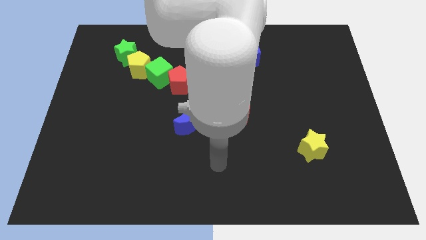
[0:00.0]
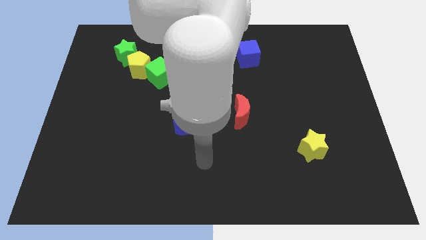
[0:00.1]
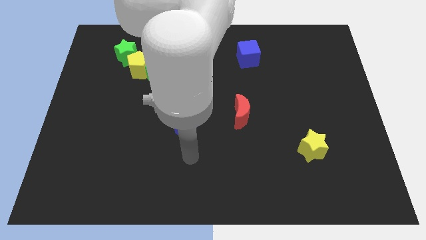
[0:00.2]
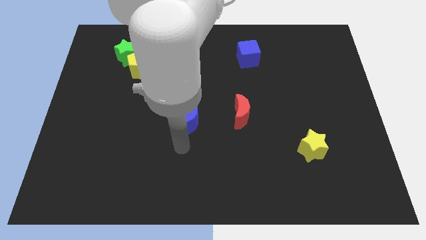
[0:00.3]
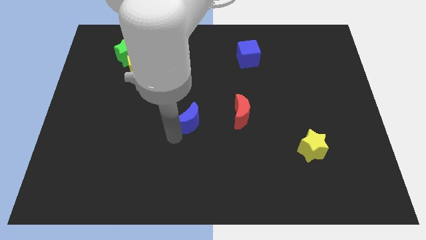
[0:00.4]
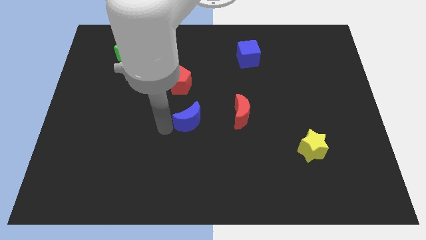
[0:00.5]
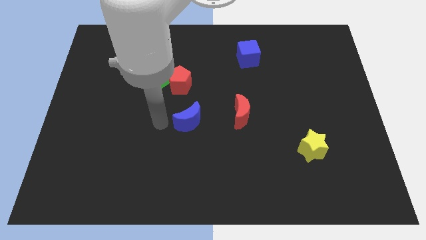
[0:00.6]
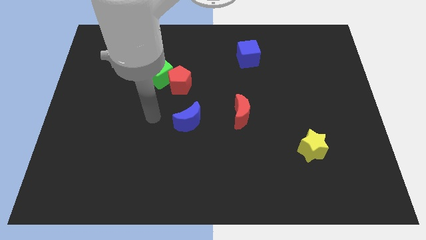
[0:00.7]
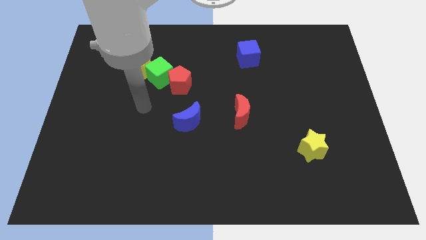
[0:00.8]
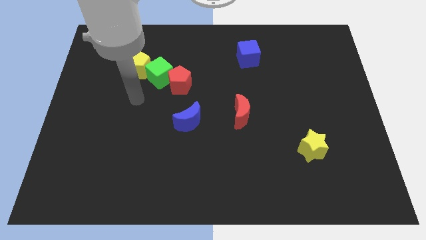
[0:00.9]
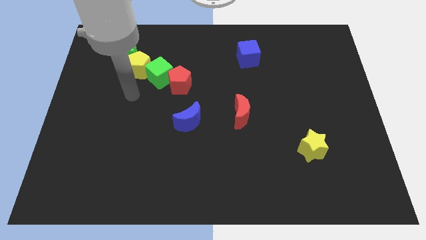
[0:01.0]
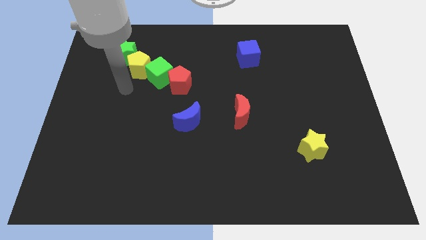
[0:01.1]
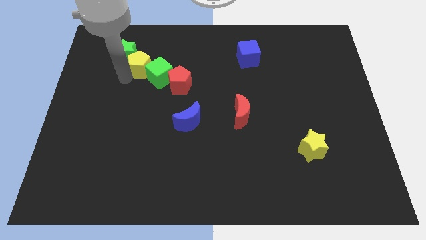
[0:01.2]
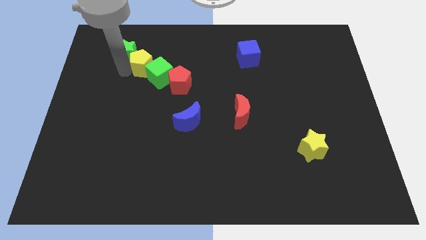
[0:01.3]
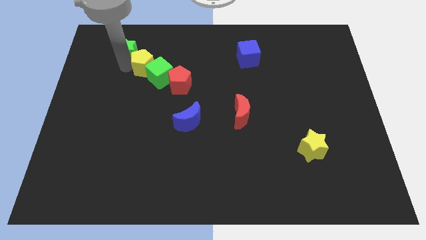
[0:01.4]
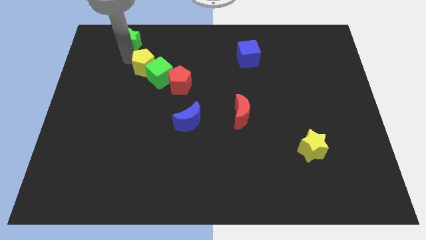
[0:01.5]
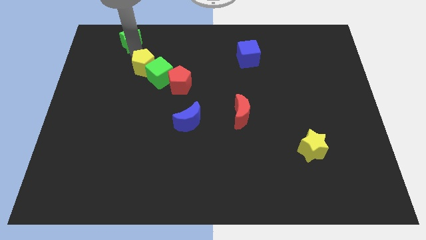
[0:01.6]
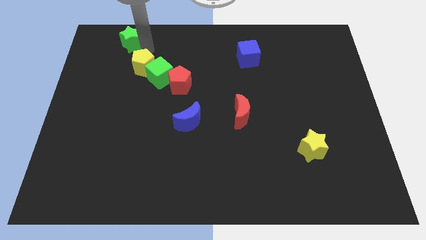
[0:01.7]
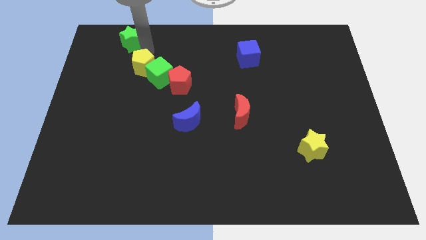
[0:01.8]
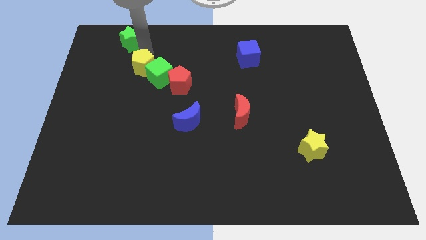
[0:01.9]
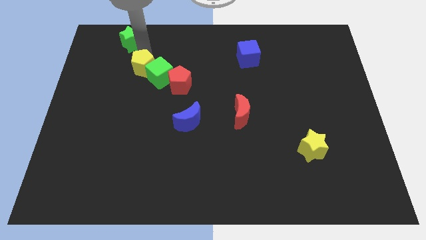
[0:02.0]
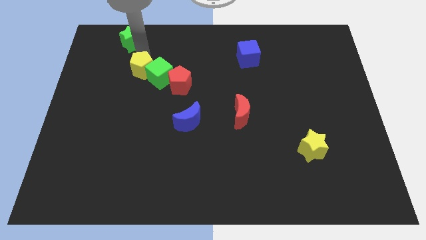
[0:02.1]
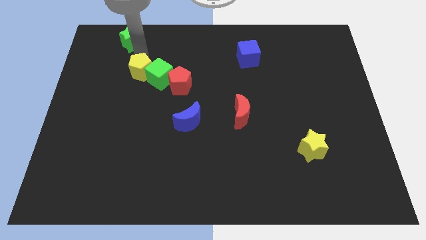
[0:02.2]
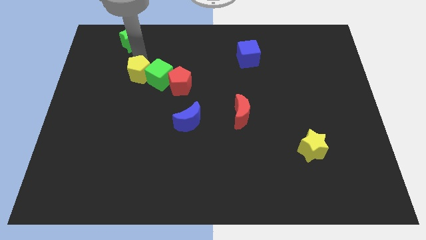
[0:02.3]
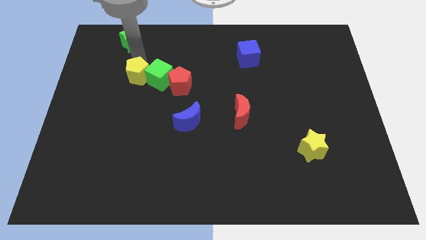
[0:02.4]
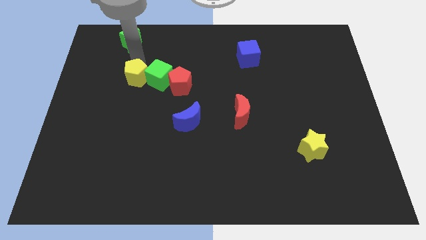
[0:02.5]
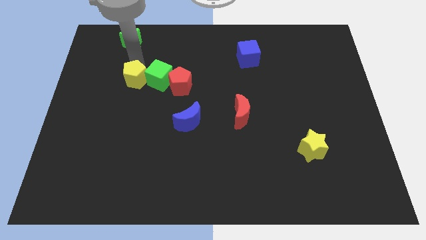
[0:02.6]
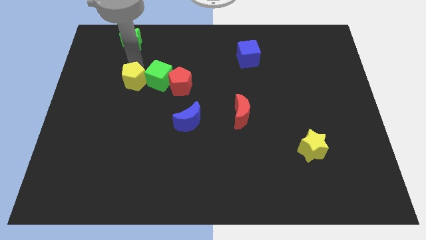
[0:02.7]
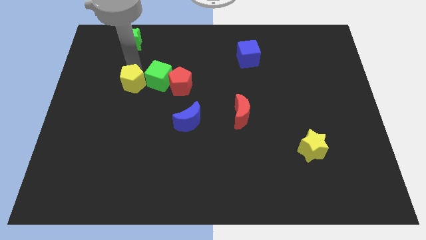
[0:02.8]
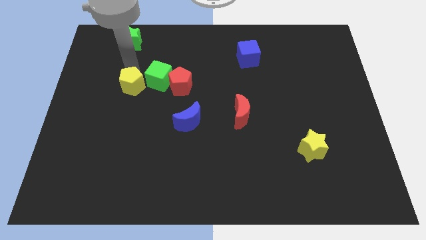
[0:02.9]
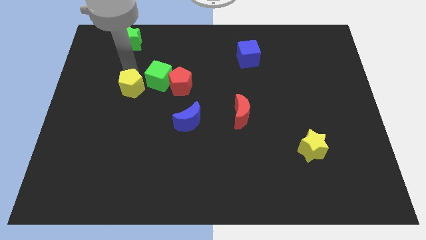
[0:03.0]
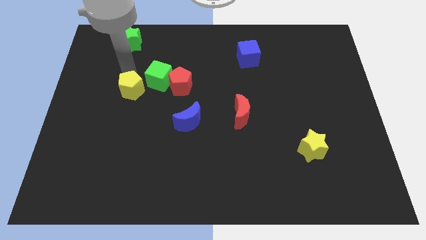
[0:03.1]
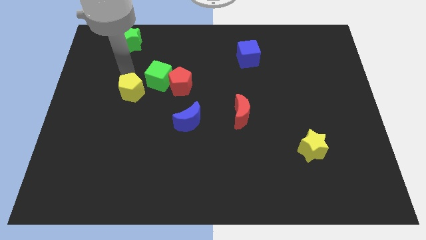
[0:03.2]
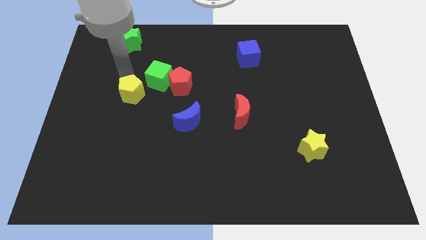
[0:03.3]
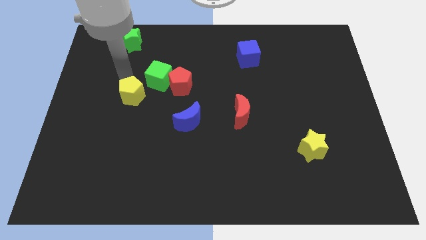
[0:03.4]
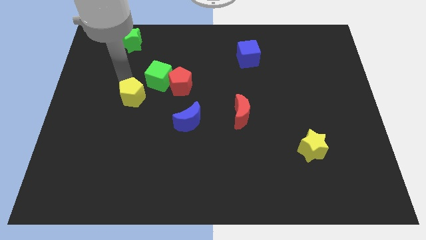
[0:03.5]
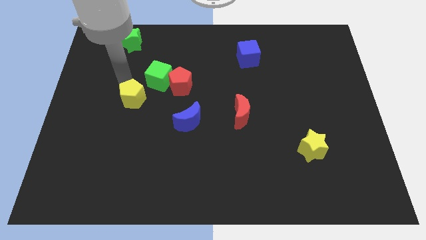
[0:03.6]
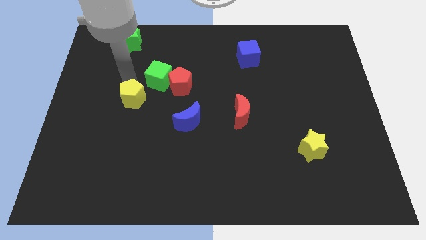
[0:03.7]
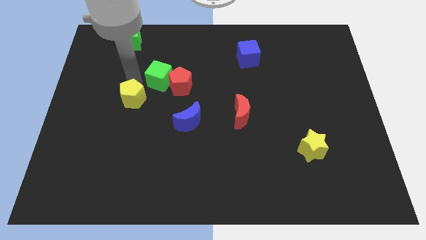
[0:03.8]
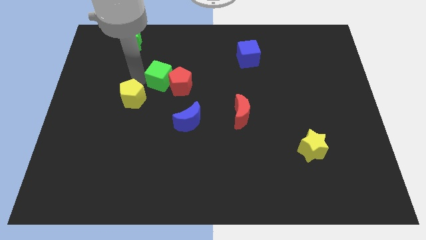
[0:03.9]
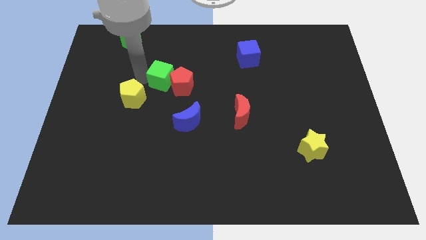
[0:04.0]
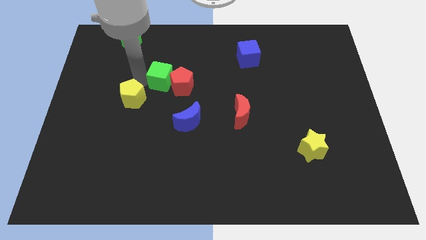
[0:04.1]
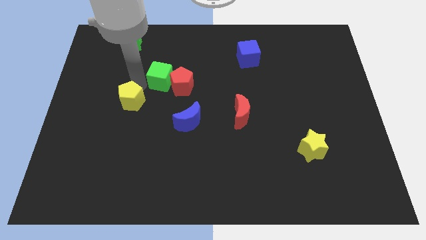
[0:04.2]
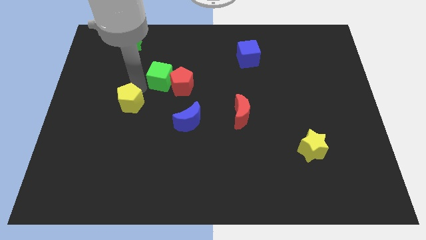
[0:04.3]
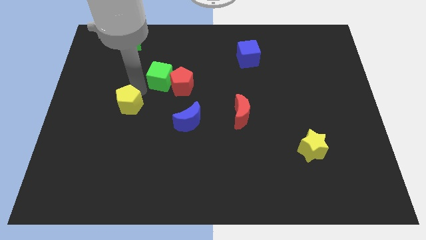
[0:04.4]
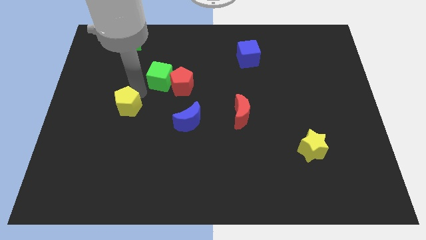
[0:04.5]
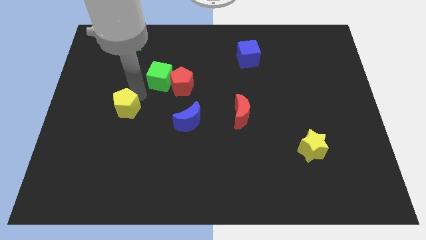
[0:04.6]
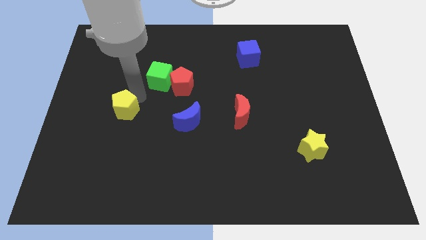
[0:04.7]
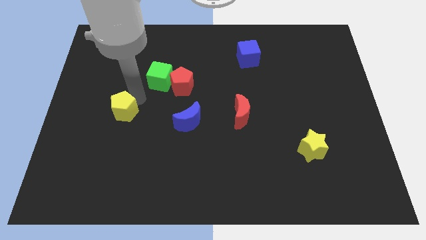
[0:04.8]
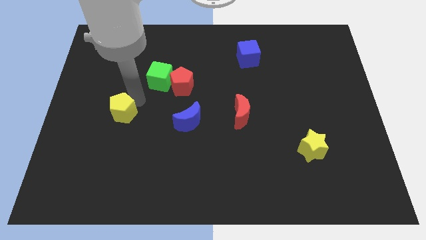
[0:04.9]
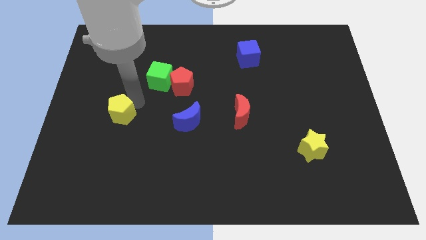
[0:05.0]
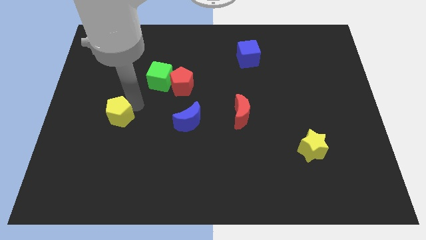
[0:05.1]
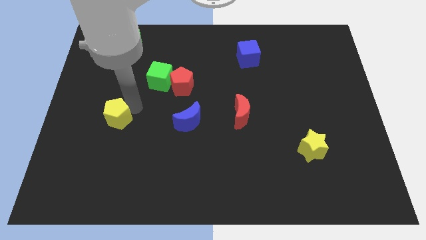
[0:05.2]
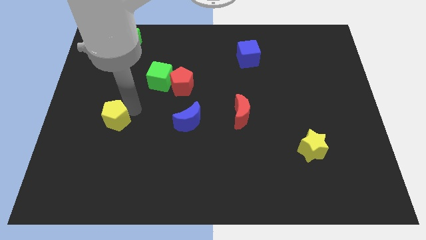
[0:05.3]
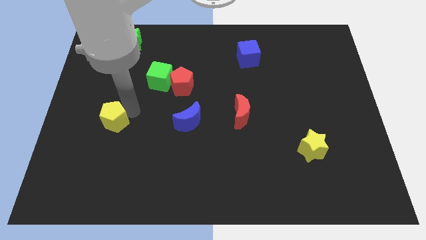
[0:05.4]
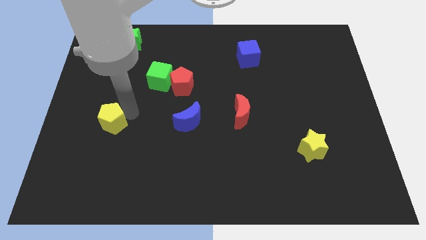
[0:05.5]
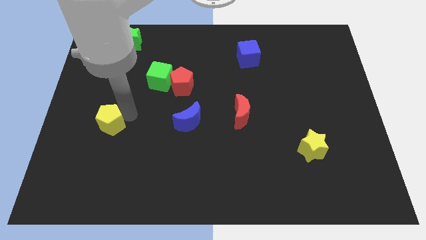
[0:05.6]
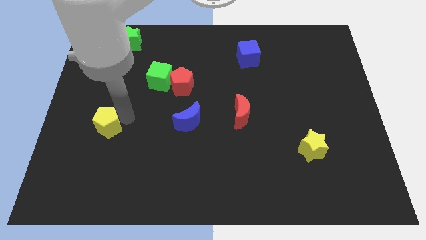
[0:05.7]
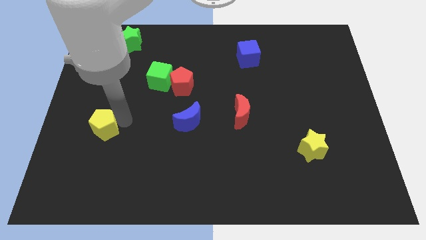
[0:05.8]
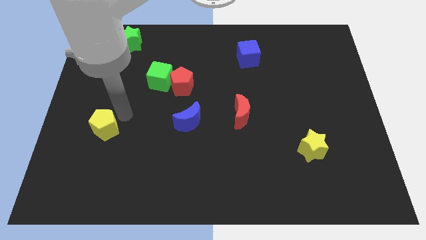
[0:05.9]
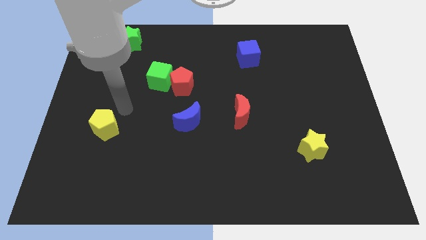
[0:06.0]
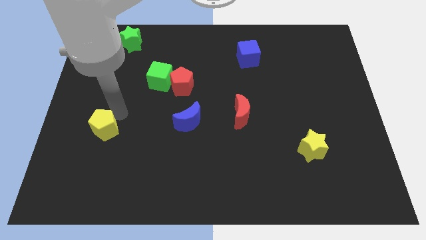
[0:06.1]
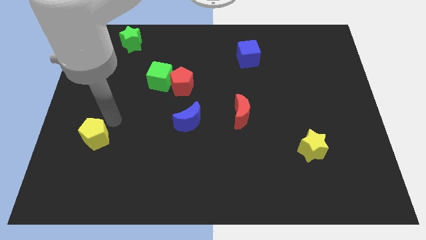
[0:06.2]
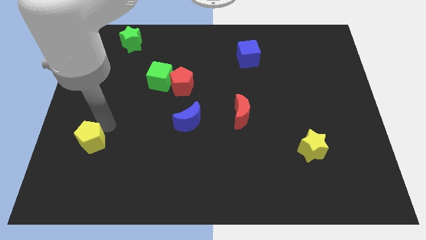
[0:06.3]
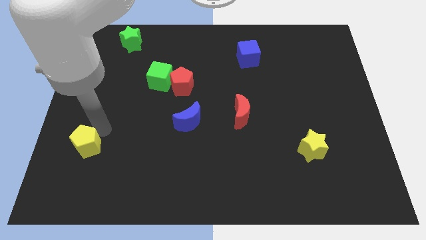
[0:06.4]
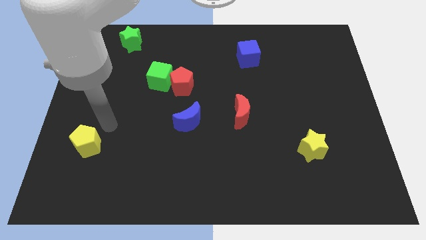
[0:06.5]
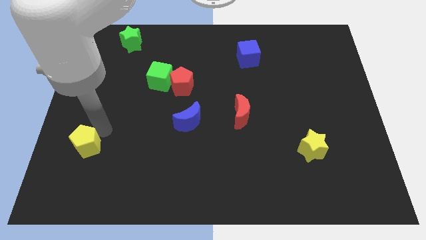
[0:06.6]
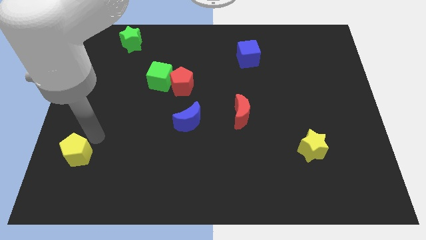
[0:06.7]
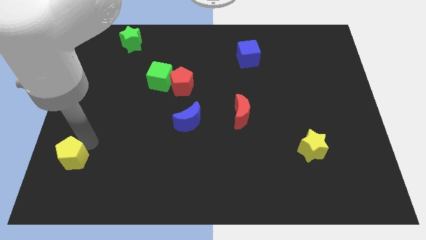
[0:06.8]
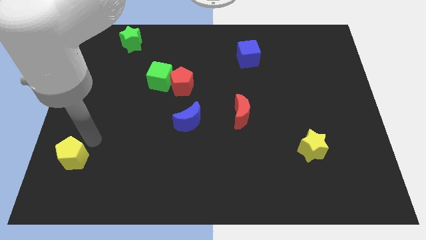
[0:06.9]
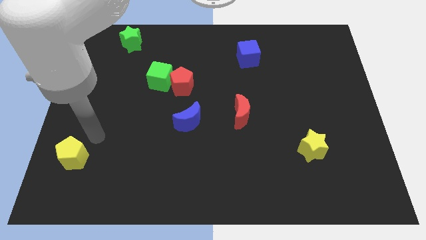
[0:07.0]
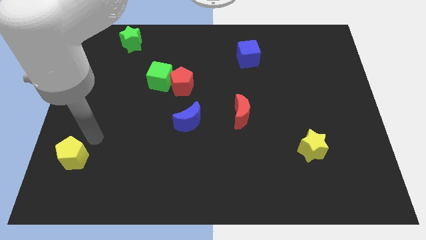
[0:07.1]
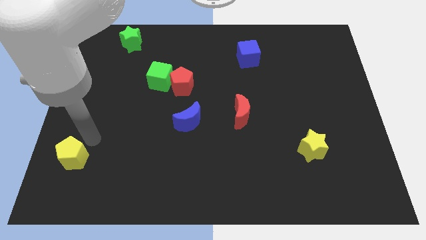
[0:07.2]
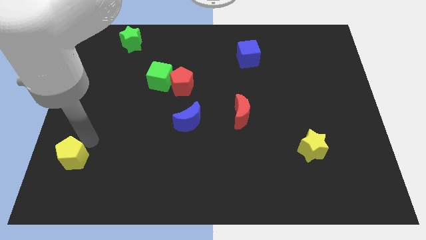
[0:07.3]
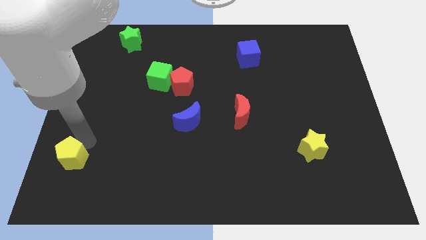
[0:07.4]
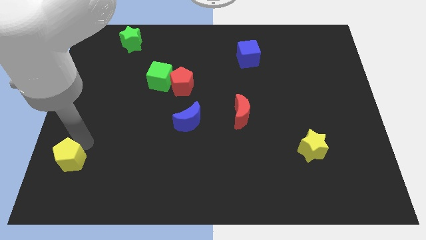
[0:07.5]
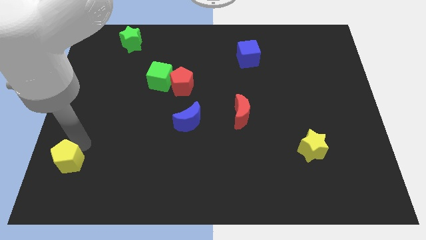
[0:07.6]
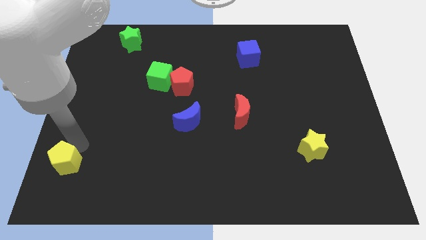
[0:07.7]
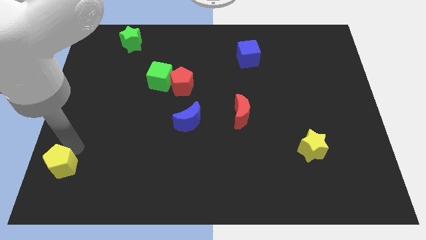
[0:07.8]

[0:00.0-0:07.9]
move the yellow pentagon to the lower left corner
